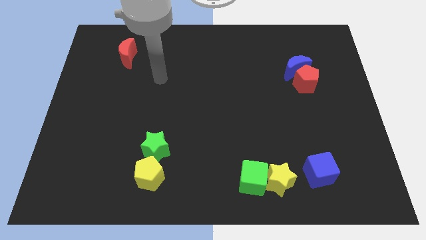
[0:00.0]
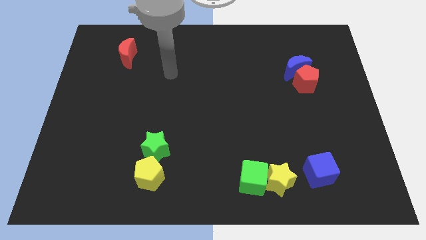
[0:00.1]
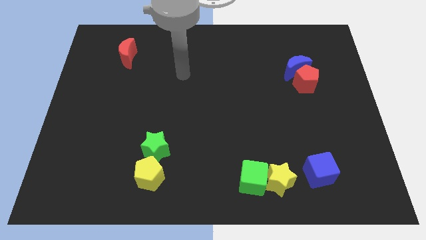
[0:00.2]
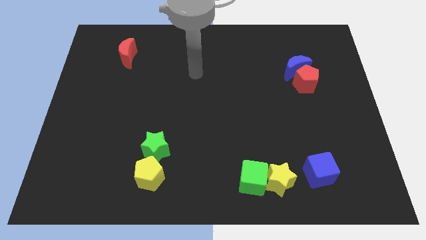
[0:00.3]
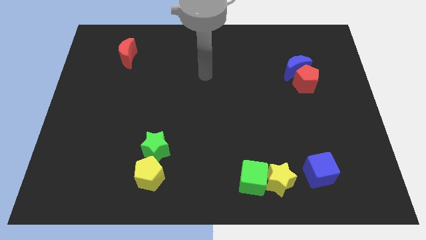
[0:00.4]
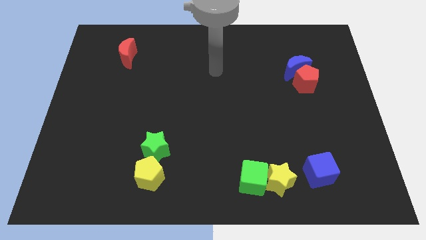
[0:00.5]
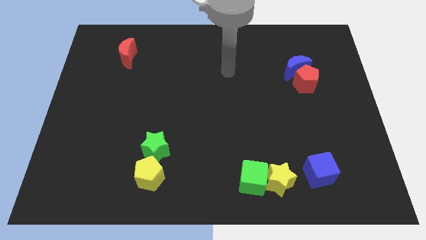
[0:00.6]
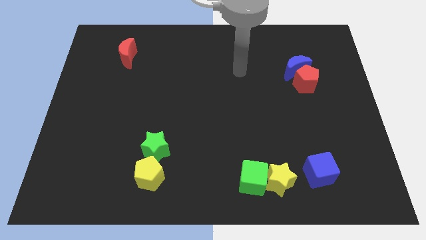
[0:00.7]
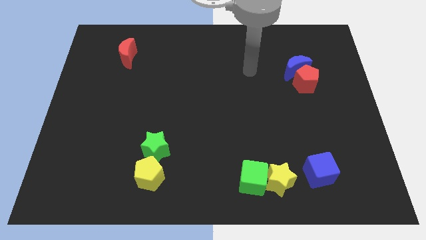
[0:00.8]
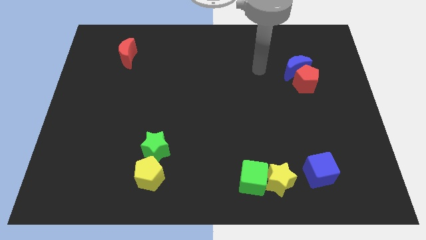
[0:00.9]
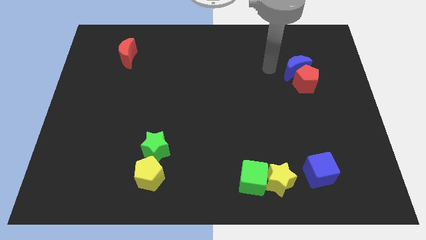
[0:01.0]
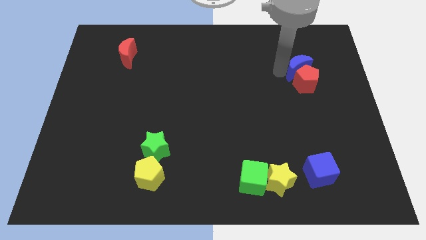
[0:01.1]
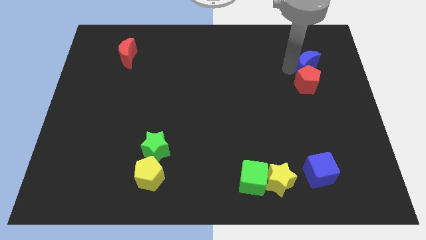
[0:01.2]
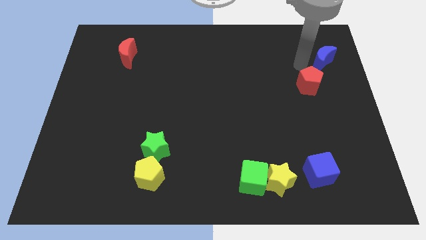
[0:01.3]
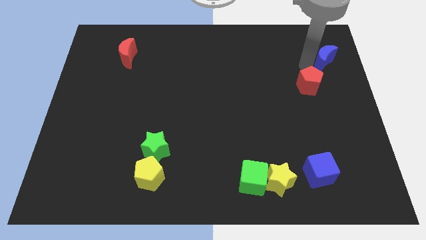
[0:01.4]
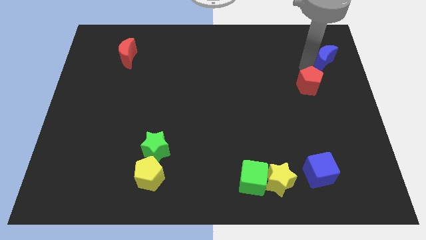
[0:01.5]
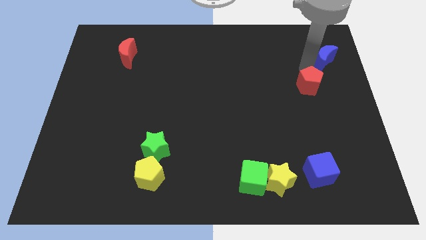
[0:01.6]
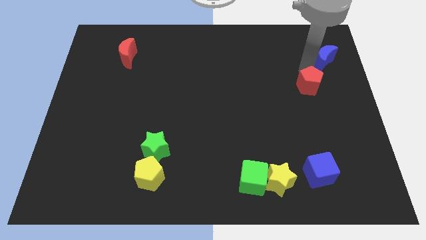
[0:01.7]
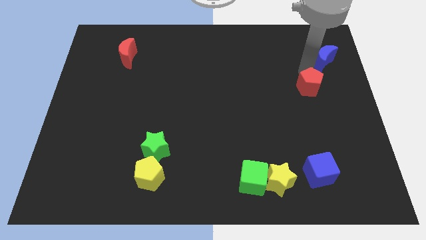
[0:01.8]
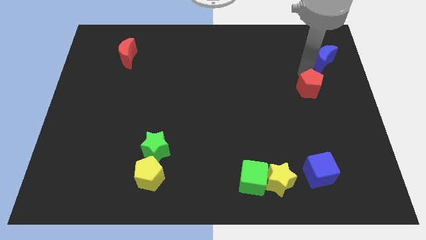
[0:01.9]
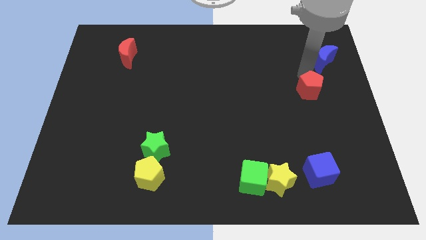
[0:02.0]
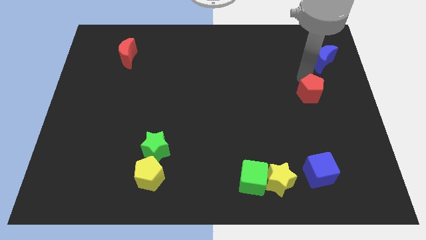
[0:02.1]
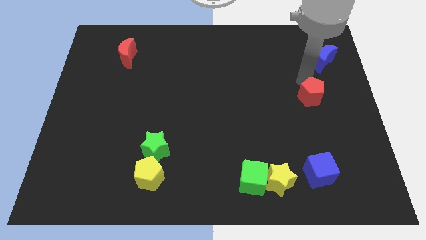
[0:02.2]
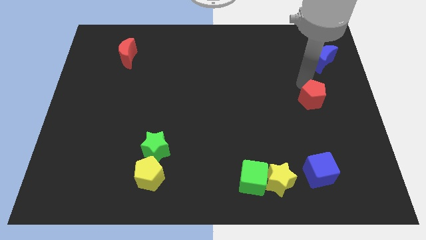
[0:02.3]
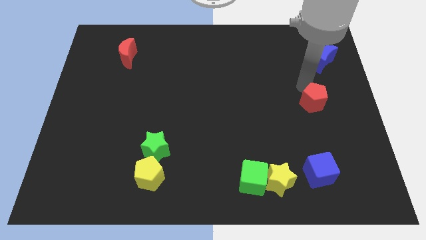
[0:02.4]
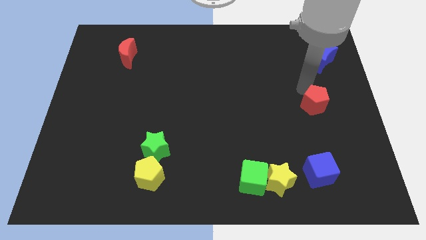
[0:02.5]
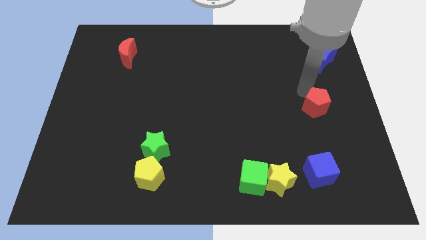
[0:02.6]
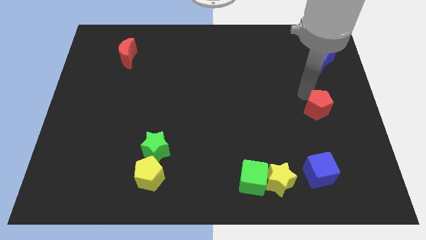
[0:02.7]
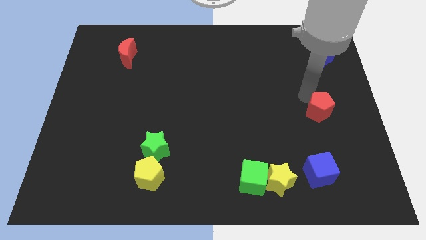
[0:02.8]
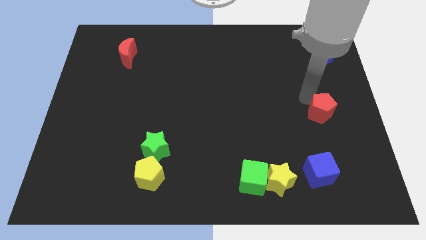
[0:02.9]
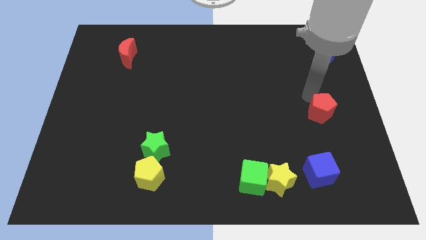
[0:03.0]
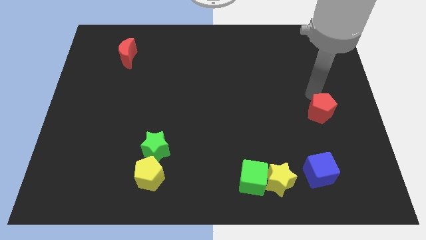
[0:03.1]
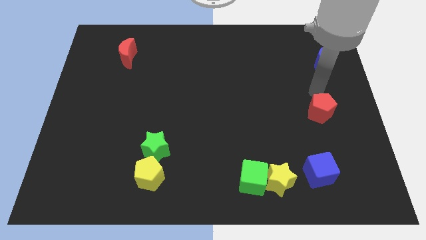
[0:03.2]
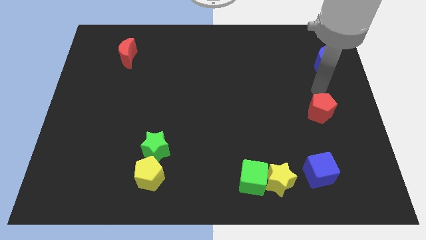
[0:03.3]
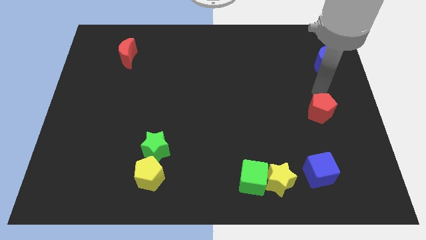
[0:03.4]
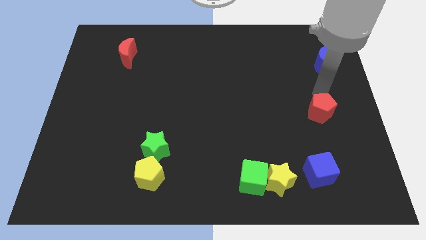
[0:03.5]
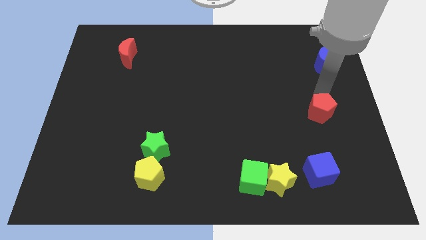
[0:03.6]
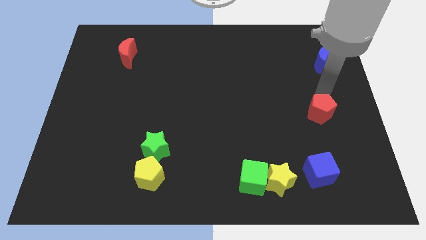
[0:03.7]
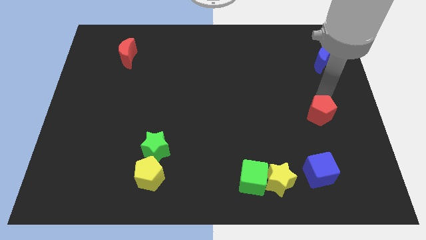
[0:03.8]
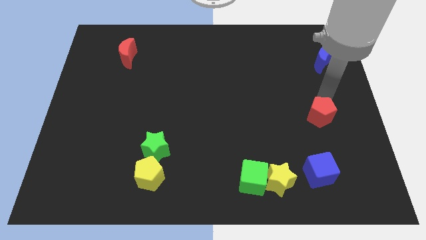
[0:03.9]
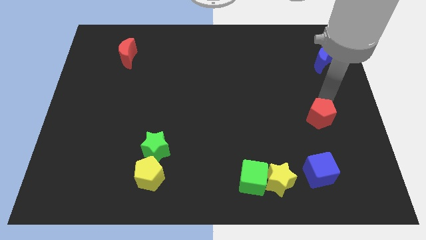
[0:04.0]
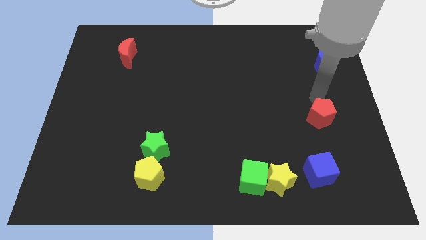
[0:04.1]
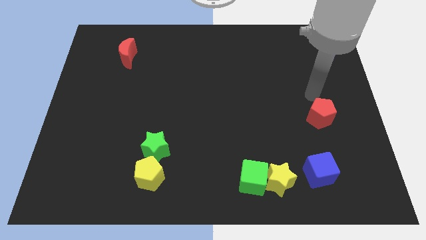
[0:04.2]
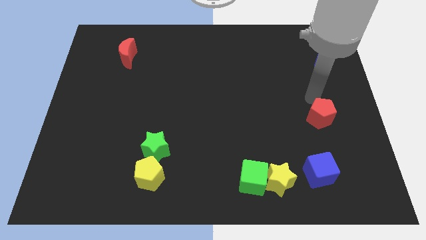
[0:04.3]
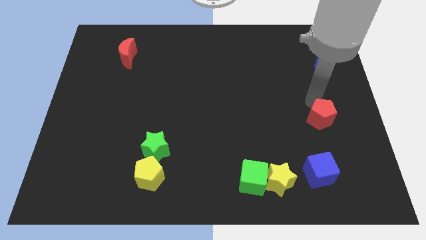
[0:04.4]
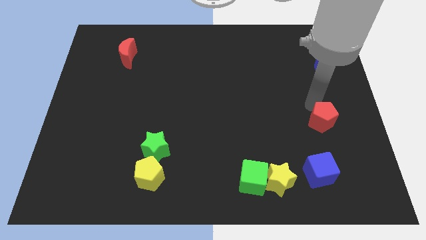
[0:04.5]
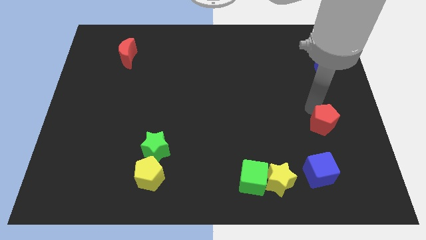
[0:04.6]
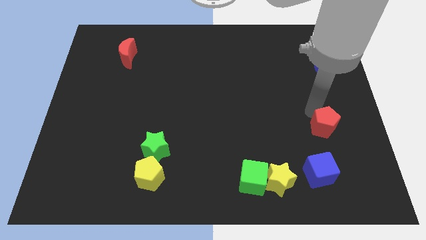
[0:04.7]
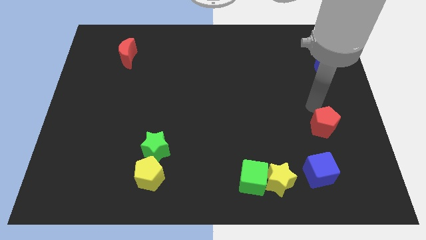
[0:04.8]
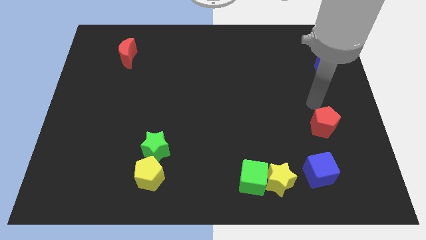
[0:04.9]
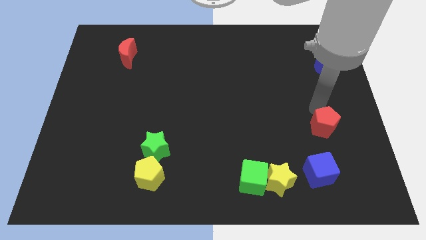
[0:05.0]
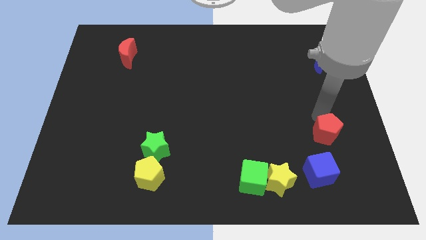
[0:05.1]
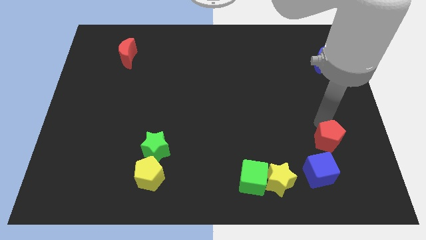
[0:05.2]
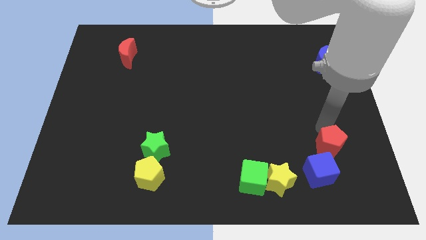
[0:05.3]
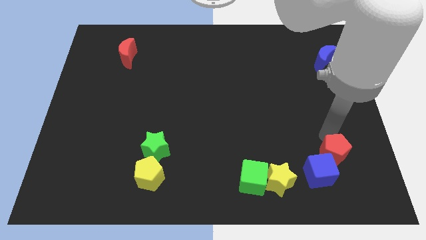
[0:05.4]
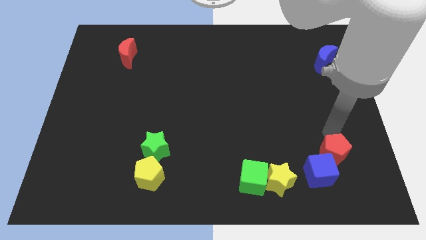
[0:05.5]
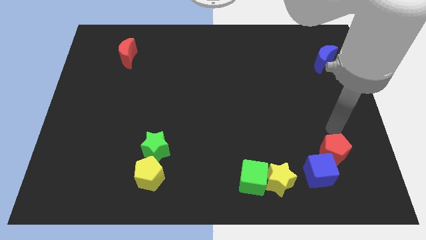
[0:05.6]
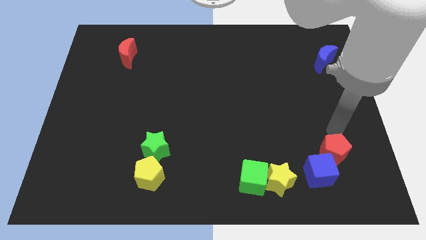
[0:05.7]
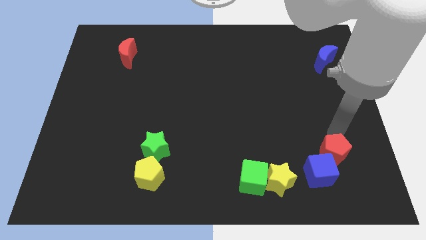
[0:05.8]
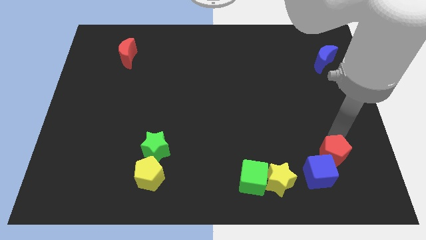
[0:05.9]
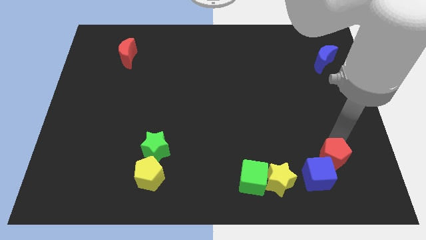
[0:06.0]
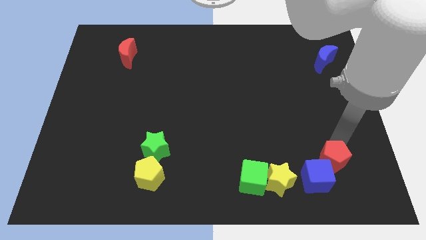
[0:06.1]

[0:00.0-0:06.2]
put the red pentagon right of the yellow star
